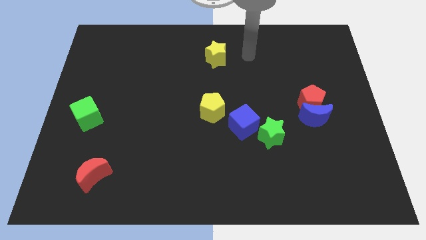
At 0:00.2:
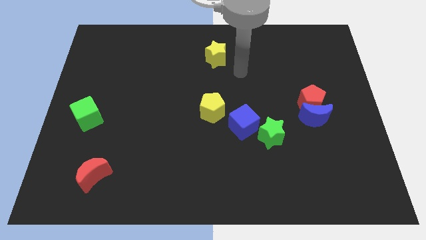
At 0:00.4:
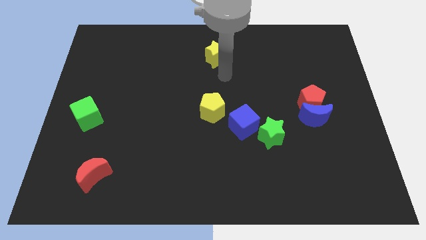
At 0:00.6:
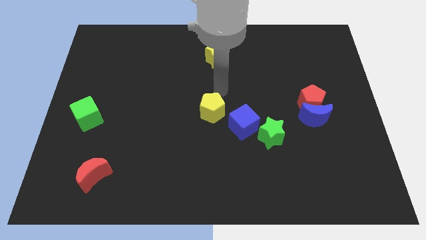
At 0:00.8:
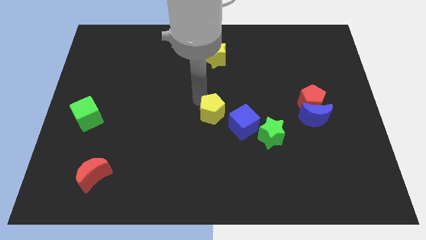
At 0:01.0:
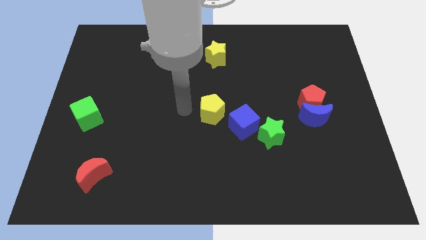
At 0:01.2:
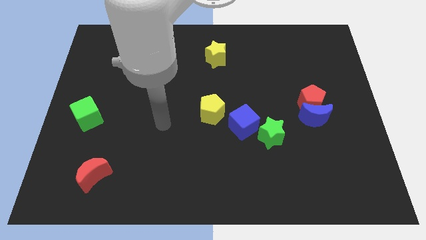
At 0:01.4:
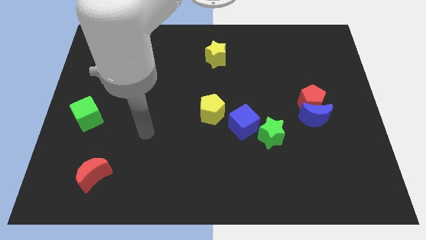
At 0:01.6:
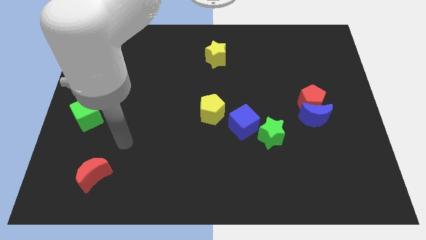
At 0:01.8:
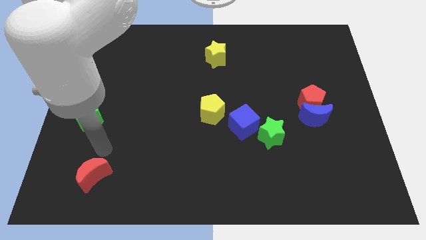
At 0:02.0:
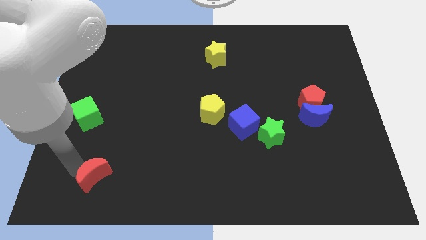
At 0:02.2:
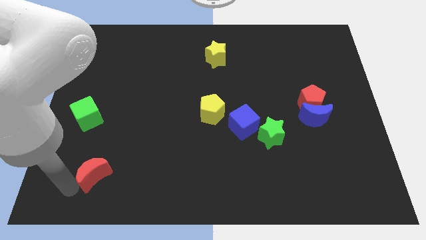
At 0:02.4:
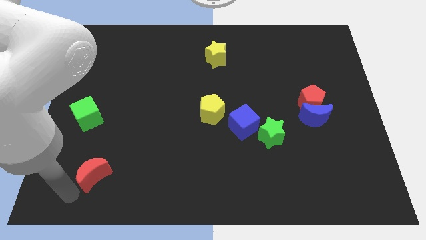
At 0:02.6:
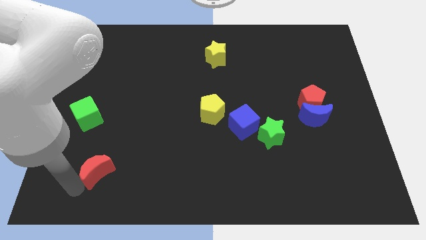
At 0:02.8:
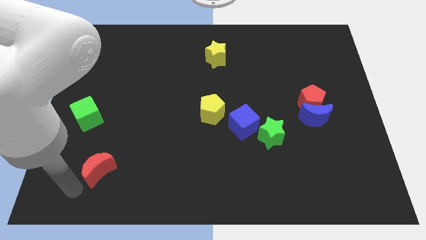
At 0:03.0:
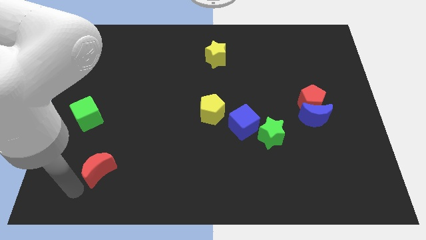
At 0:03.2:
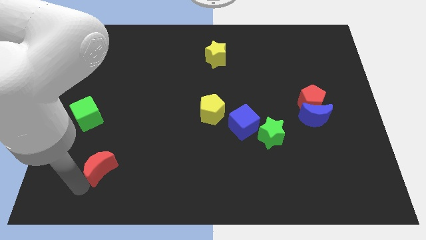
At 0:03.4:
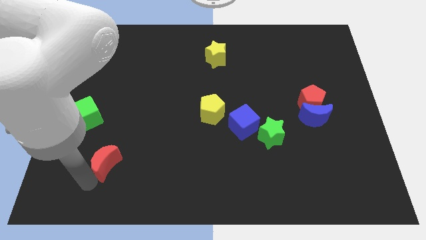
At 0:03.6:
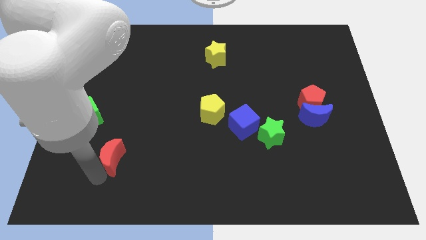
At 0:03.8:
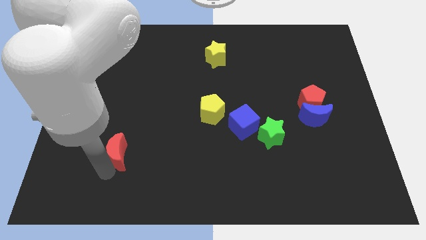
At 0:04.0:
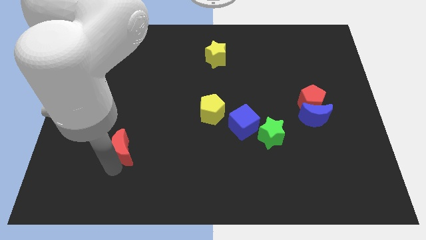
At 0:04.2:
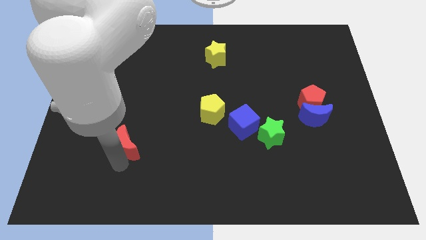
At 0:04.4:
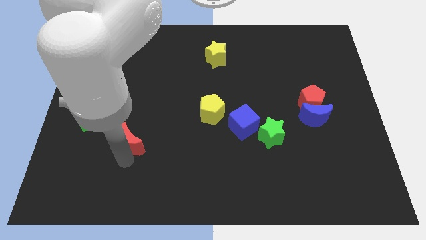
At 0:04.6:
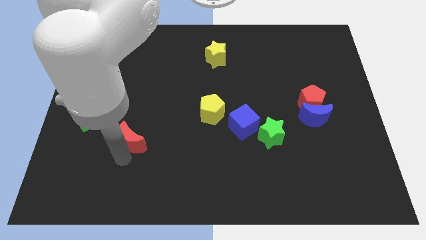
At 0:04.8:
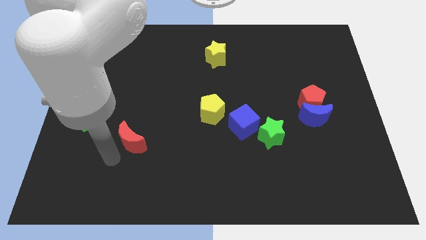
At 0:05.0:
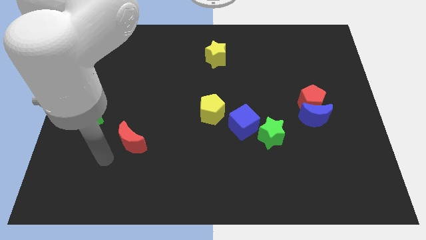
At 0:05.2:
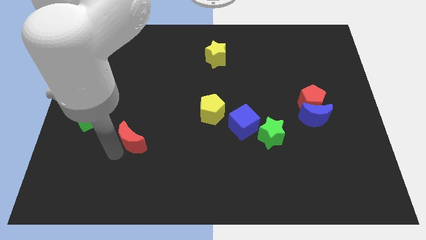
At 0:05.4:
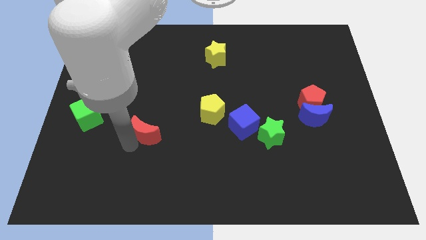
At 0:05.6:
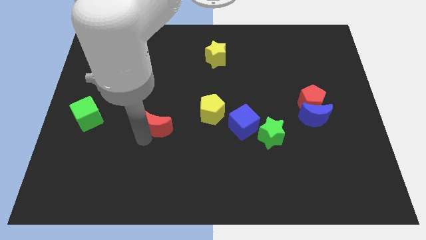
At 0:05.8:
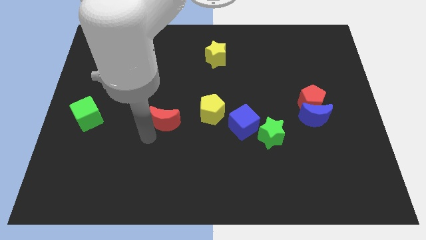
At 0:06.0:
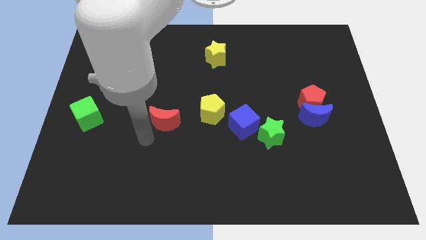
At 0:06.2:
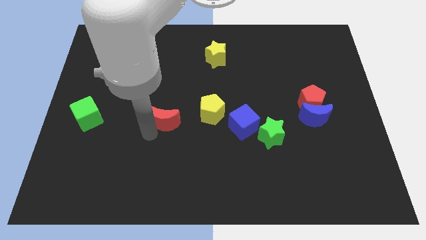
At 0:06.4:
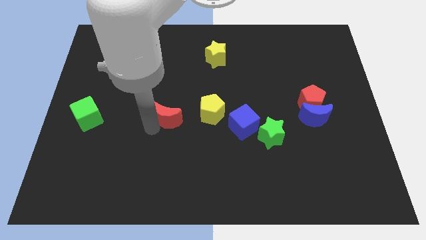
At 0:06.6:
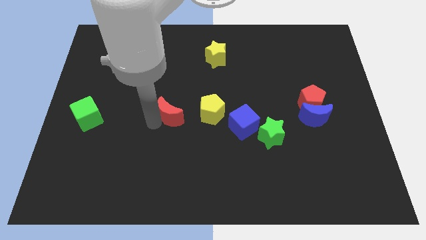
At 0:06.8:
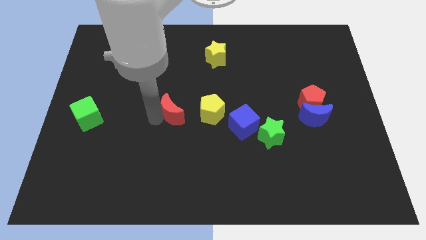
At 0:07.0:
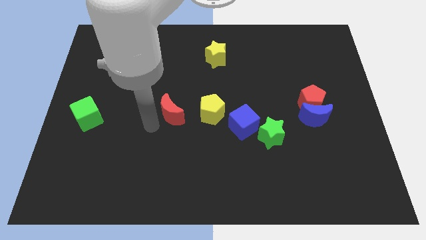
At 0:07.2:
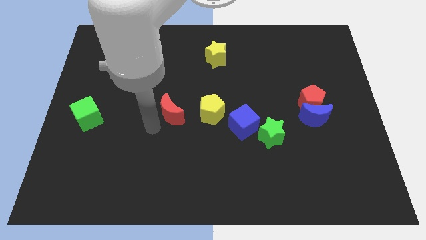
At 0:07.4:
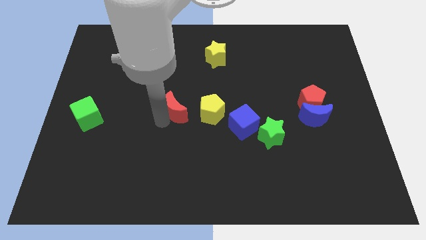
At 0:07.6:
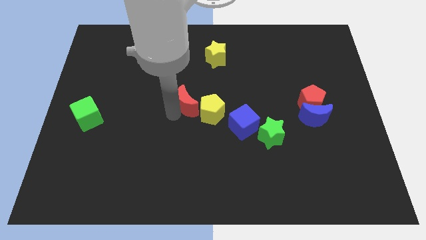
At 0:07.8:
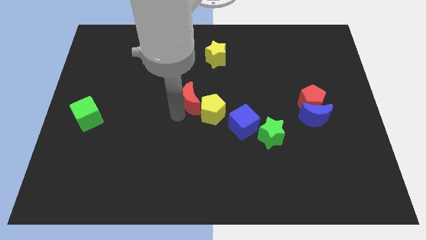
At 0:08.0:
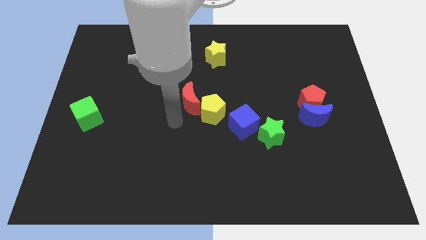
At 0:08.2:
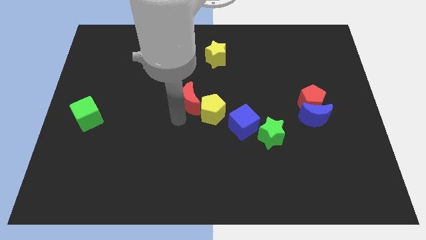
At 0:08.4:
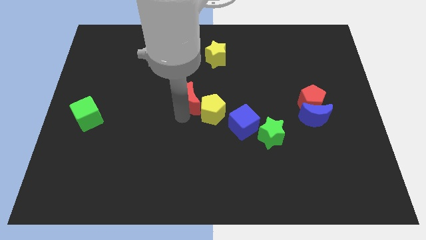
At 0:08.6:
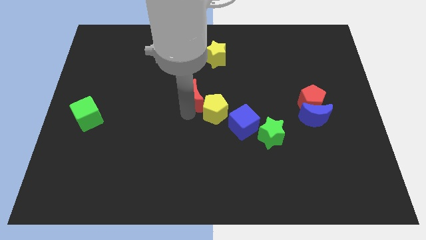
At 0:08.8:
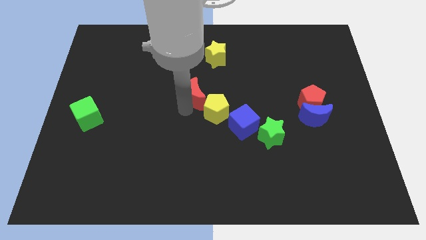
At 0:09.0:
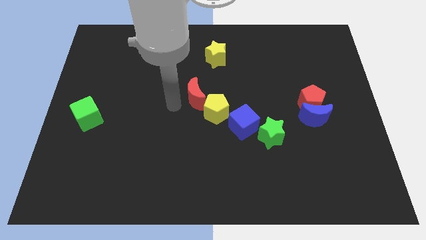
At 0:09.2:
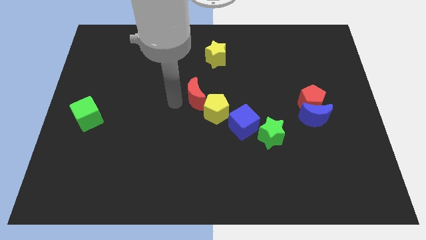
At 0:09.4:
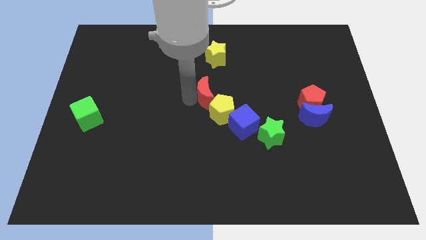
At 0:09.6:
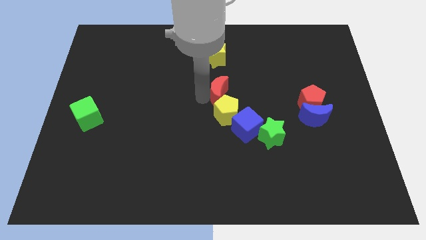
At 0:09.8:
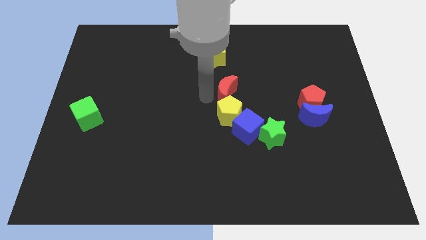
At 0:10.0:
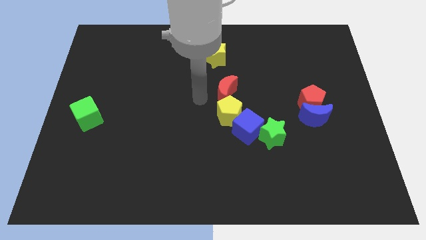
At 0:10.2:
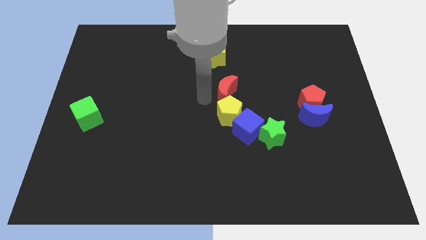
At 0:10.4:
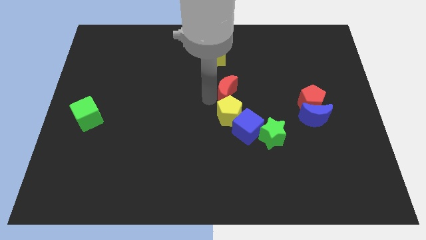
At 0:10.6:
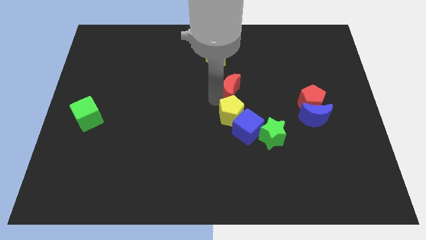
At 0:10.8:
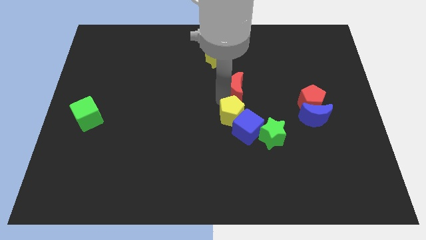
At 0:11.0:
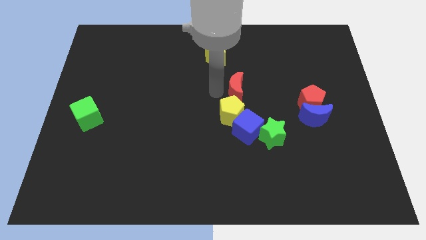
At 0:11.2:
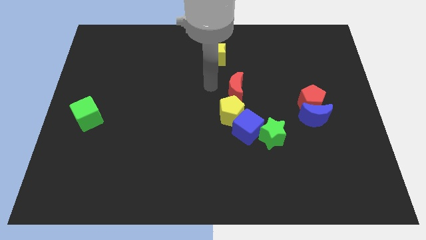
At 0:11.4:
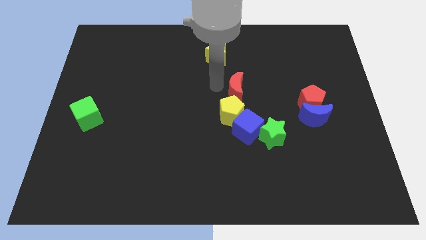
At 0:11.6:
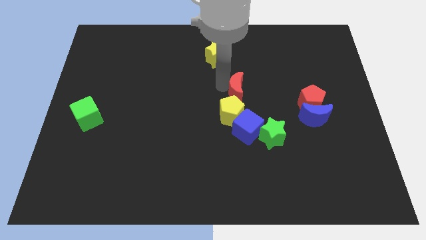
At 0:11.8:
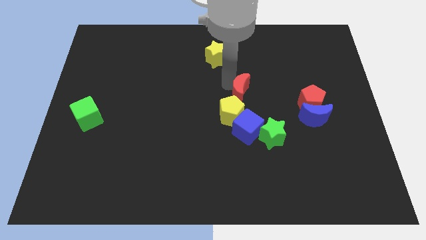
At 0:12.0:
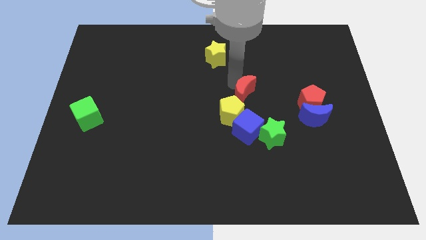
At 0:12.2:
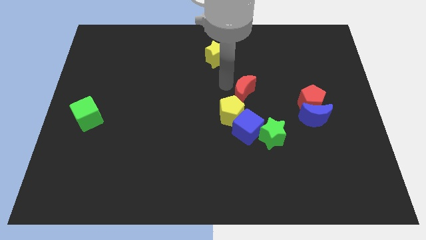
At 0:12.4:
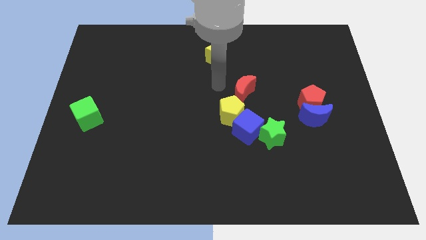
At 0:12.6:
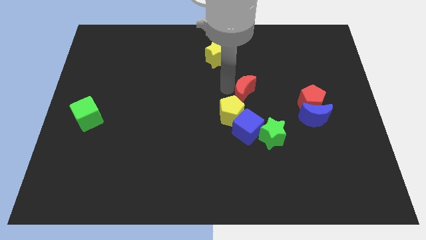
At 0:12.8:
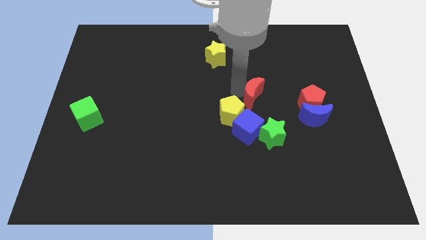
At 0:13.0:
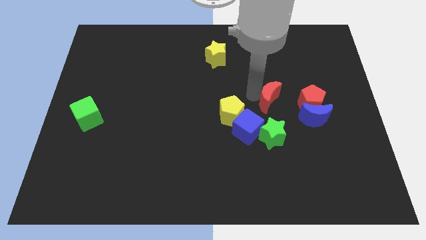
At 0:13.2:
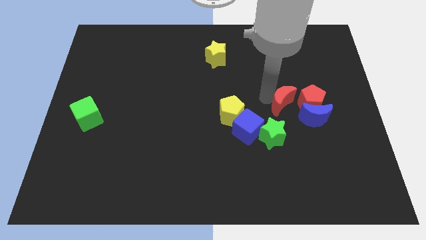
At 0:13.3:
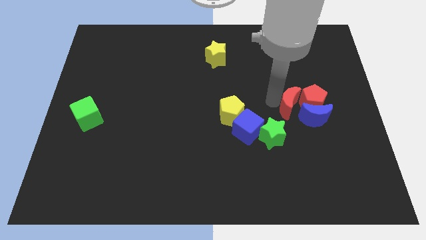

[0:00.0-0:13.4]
move the red moon to the red pentagon
